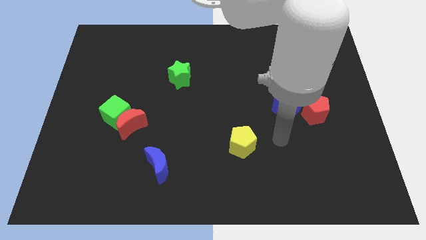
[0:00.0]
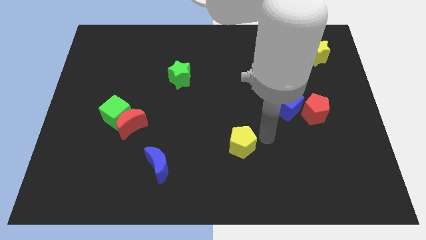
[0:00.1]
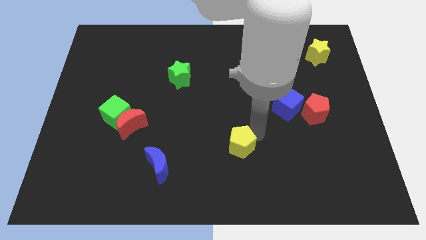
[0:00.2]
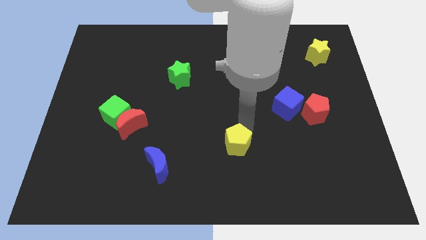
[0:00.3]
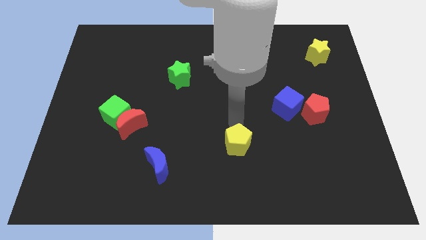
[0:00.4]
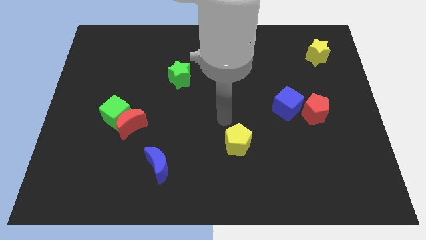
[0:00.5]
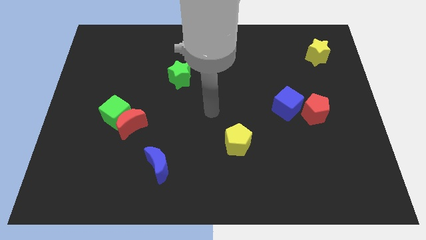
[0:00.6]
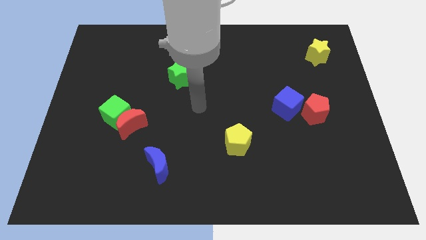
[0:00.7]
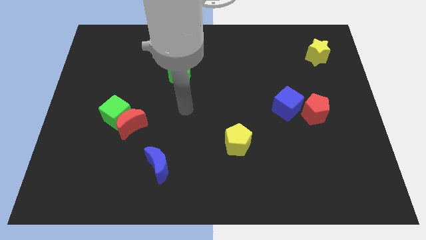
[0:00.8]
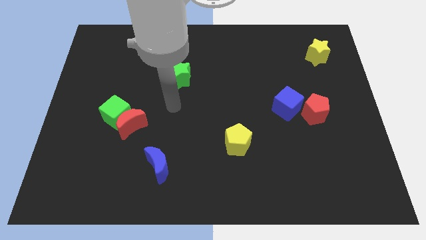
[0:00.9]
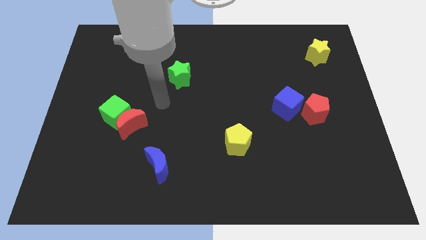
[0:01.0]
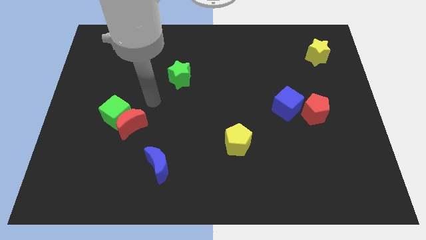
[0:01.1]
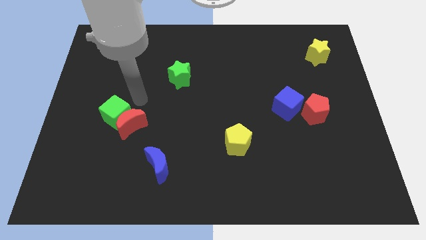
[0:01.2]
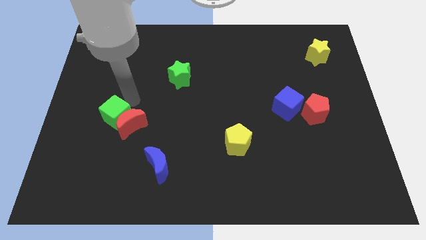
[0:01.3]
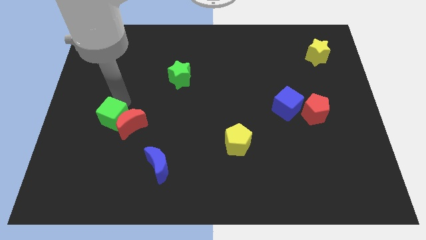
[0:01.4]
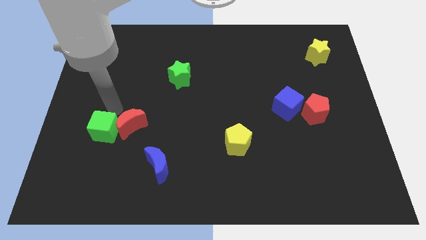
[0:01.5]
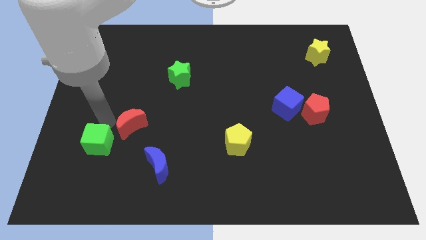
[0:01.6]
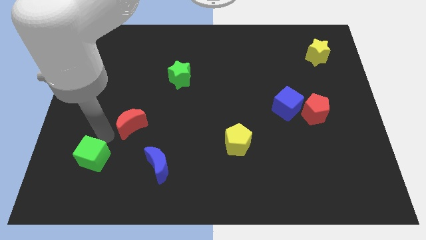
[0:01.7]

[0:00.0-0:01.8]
pull the red moon apart from the green cube

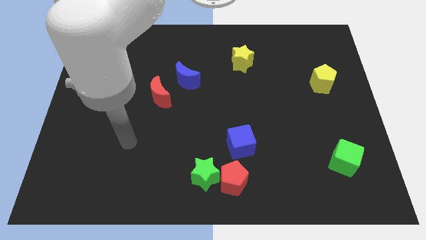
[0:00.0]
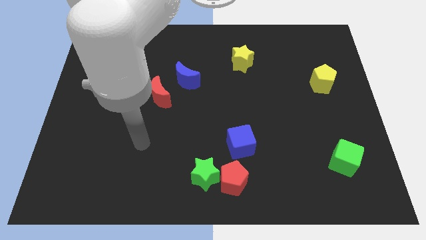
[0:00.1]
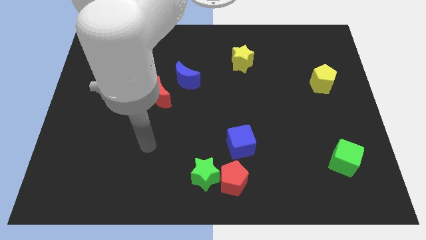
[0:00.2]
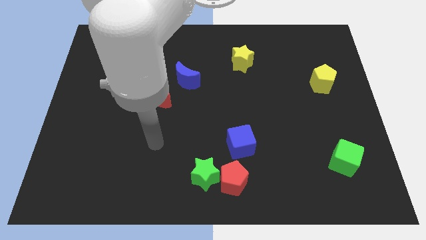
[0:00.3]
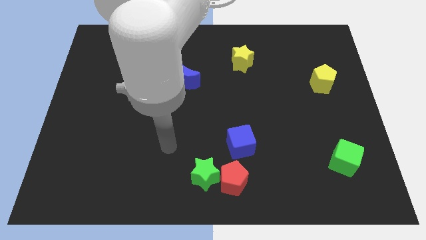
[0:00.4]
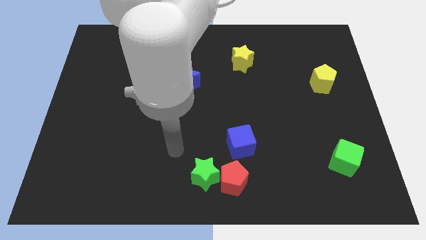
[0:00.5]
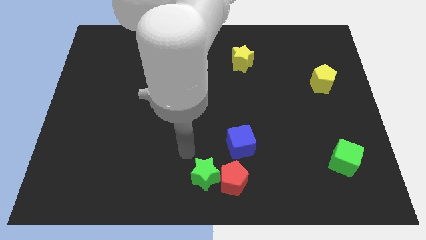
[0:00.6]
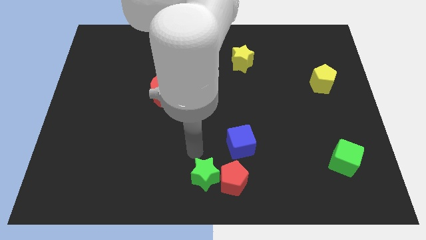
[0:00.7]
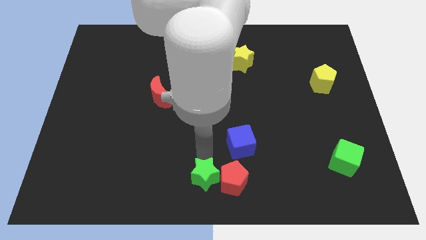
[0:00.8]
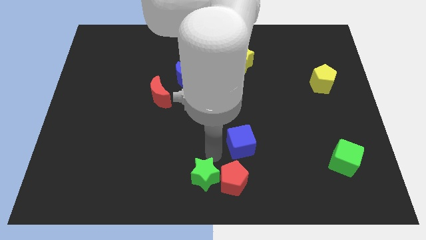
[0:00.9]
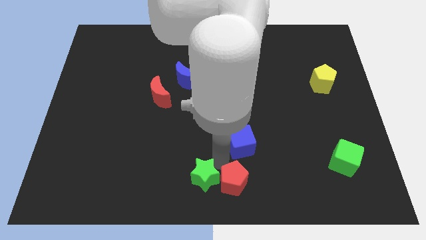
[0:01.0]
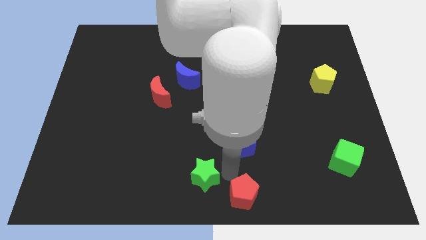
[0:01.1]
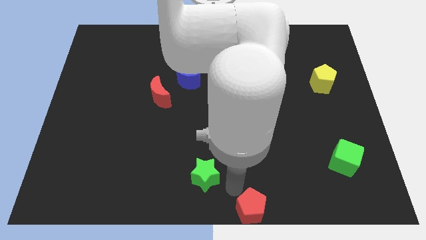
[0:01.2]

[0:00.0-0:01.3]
move the green star away from the red pentagon

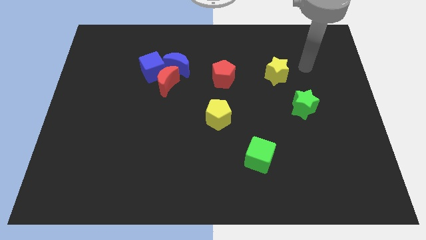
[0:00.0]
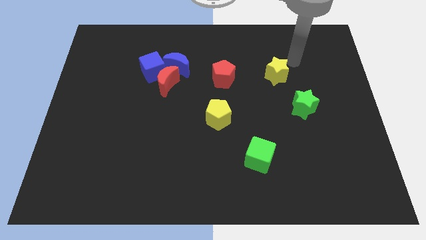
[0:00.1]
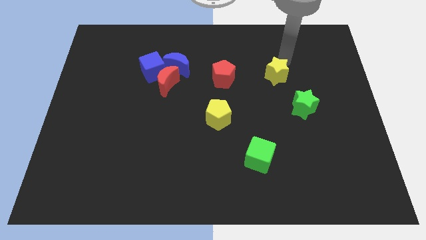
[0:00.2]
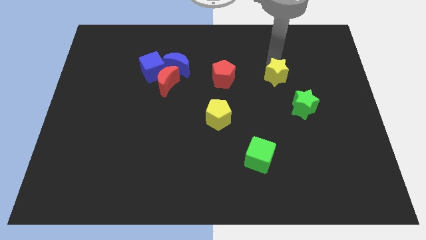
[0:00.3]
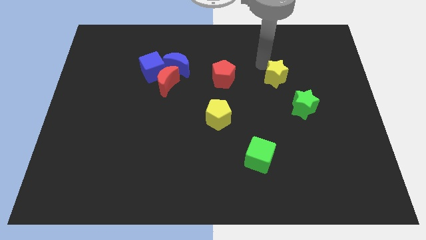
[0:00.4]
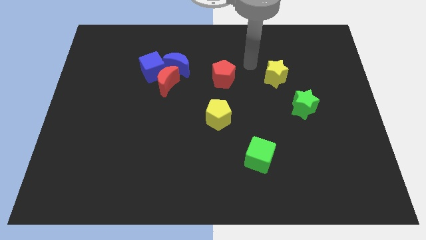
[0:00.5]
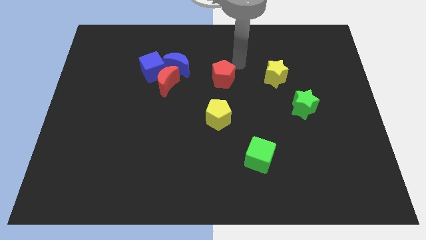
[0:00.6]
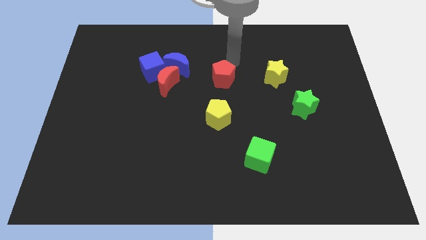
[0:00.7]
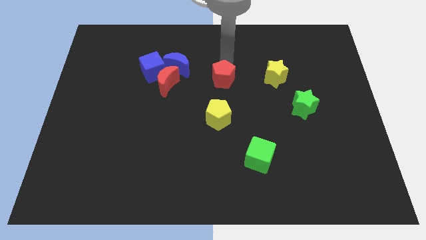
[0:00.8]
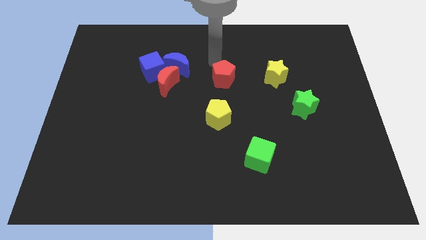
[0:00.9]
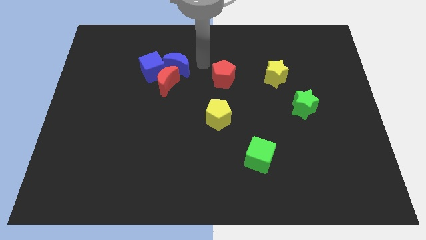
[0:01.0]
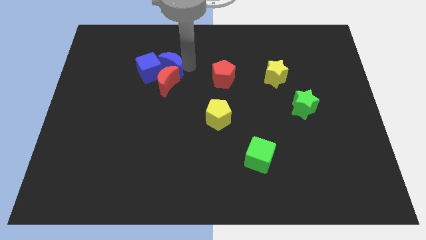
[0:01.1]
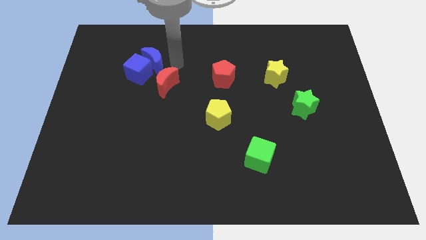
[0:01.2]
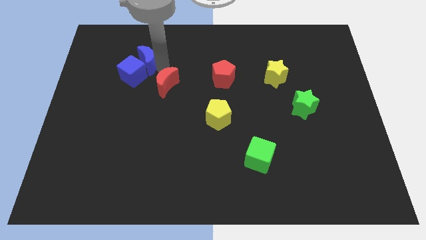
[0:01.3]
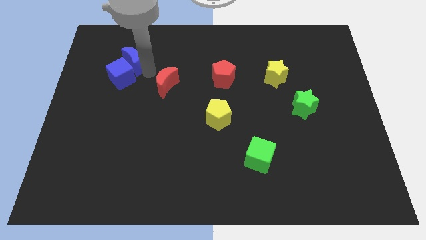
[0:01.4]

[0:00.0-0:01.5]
separate the red moon from the blue cube and blue moon

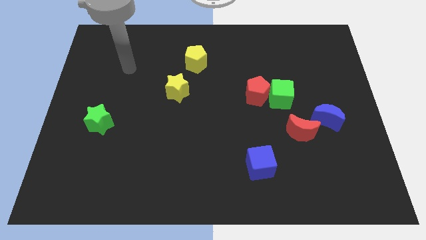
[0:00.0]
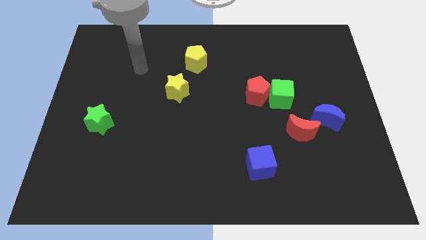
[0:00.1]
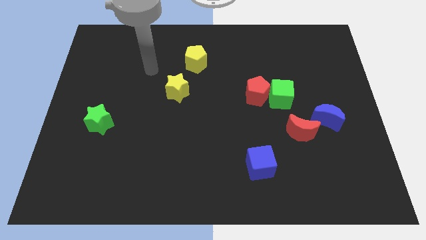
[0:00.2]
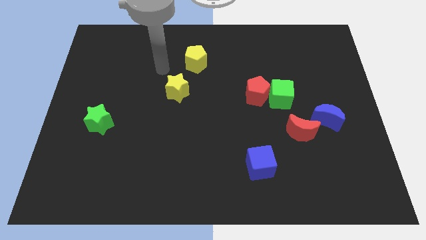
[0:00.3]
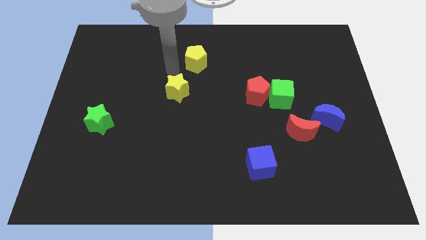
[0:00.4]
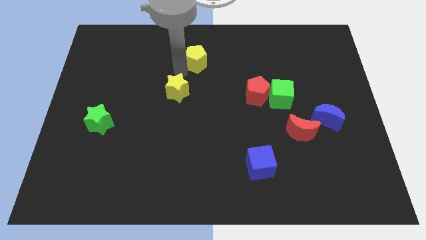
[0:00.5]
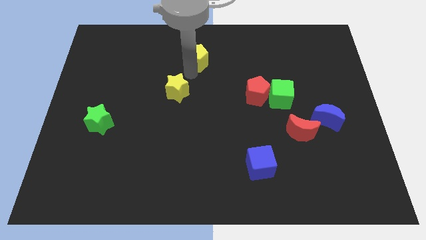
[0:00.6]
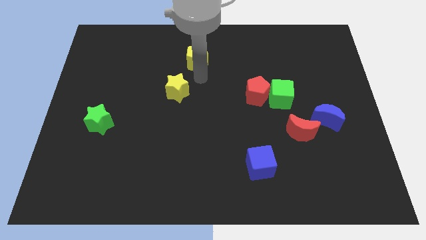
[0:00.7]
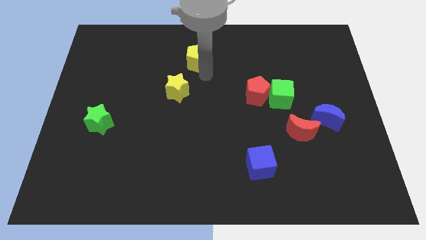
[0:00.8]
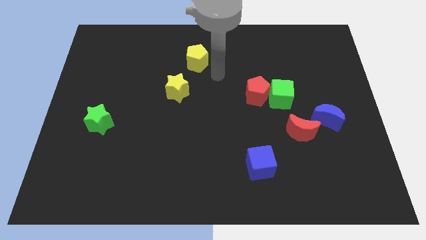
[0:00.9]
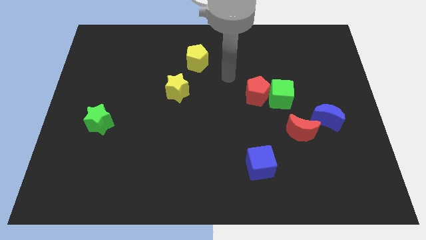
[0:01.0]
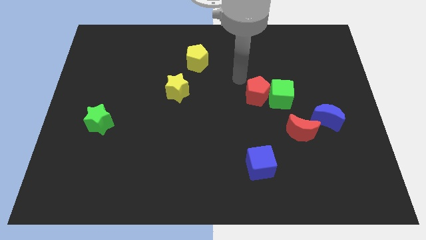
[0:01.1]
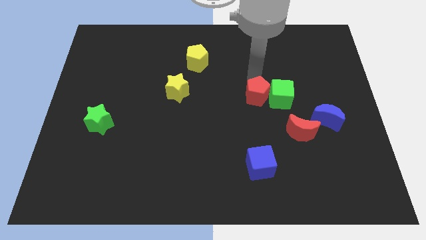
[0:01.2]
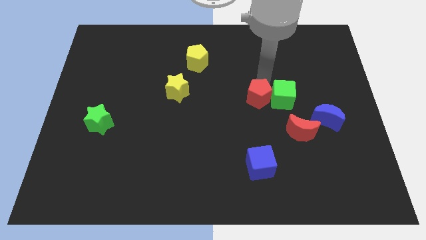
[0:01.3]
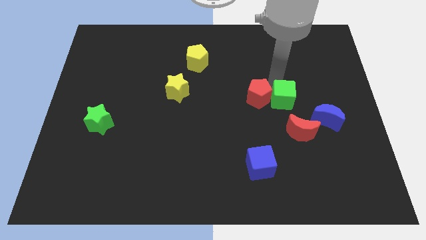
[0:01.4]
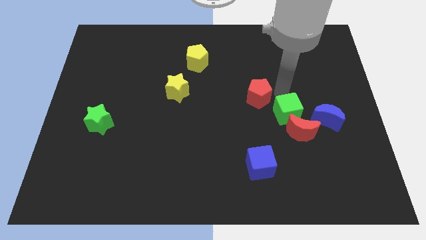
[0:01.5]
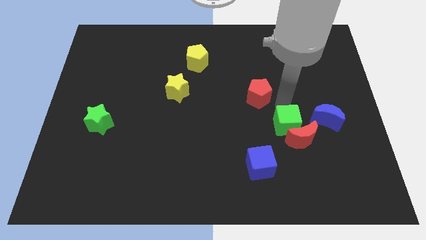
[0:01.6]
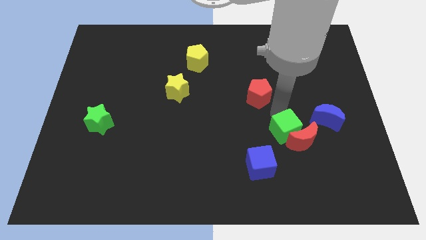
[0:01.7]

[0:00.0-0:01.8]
move the red pentagon away from the green cube

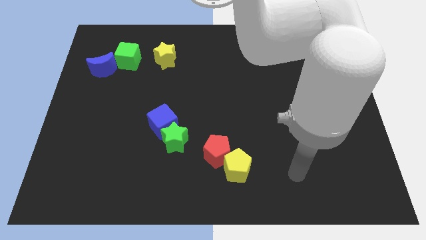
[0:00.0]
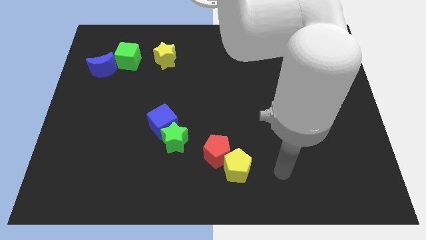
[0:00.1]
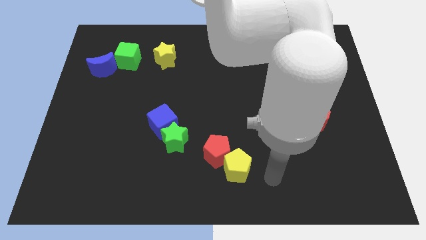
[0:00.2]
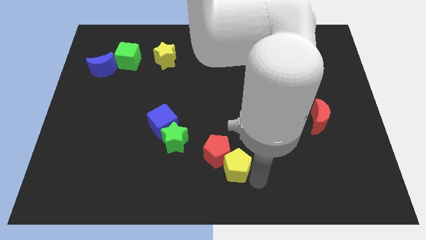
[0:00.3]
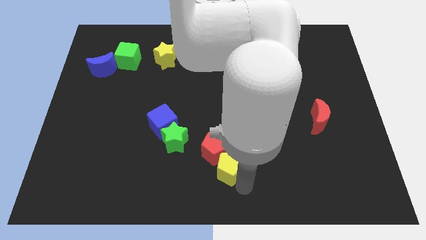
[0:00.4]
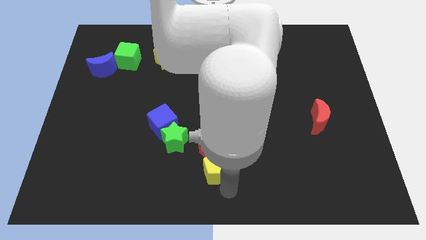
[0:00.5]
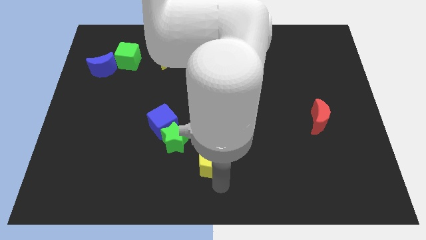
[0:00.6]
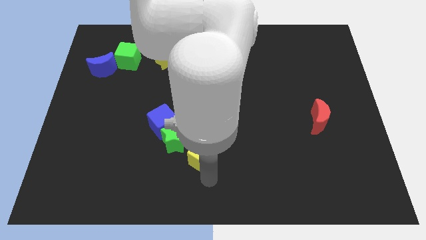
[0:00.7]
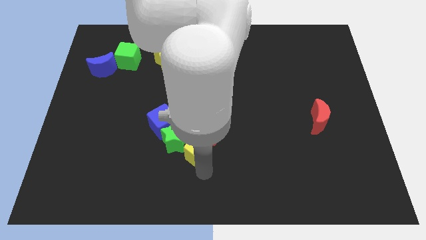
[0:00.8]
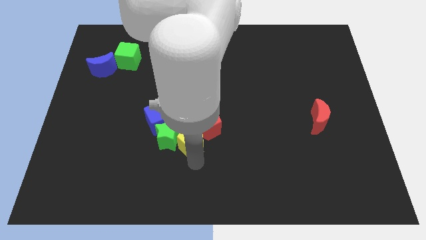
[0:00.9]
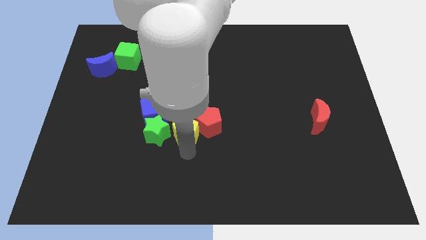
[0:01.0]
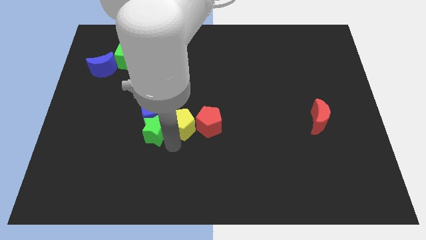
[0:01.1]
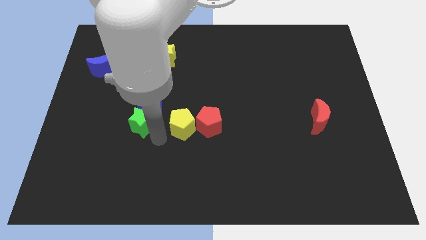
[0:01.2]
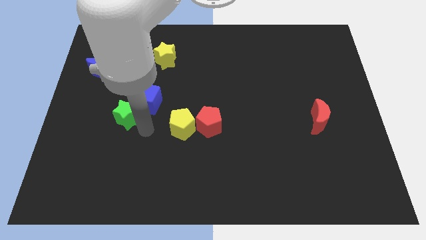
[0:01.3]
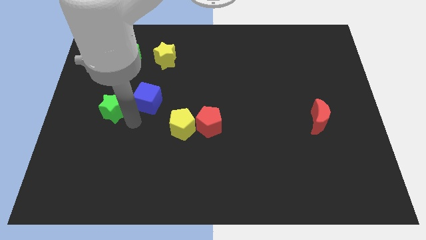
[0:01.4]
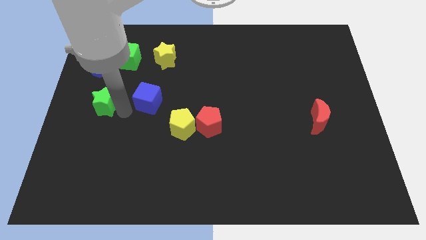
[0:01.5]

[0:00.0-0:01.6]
separate the blue cube from the green star

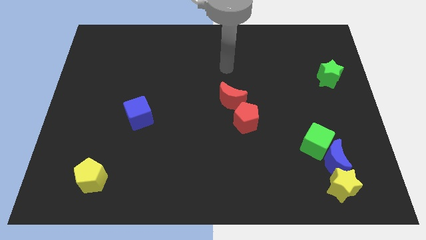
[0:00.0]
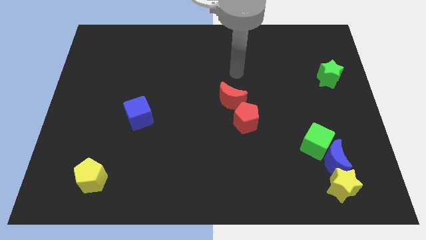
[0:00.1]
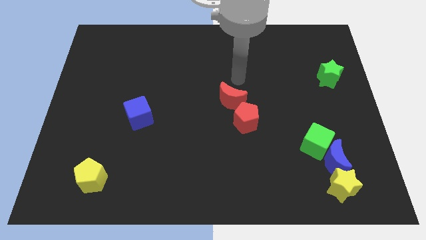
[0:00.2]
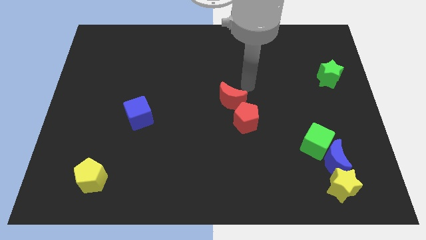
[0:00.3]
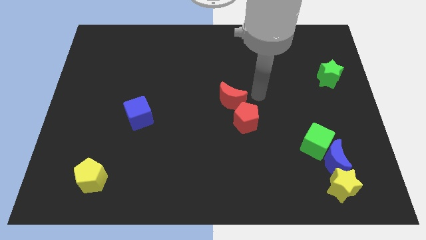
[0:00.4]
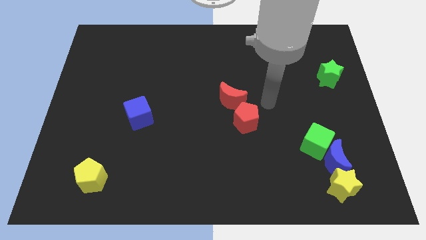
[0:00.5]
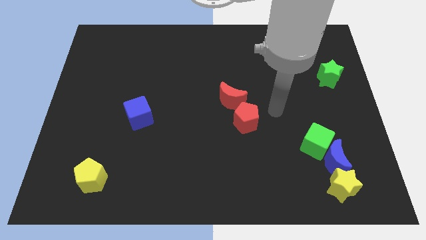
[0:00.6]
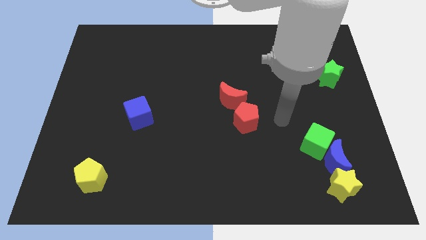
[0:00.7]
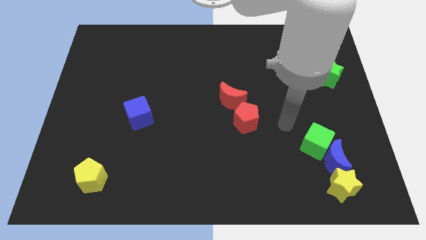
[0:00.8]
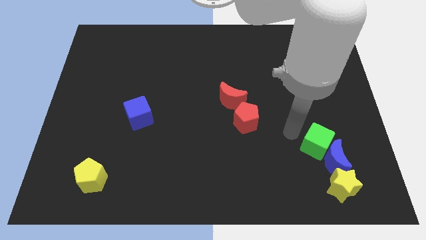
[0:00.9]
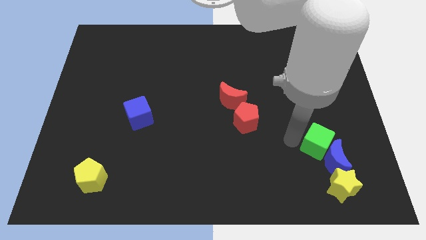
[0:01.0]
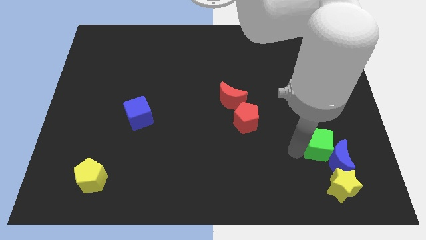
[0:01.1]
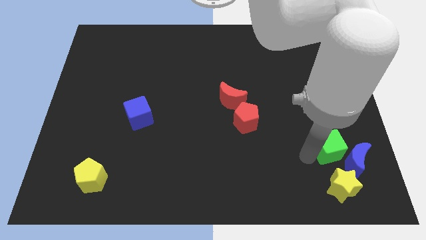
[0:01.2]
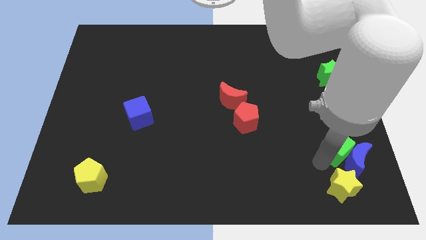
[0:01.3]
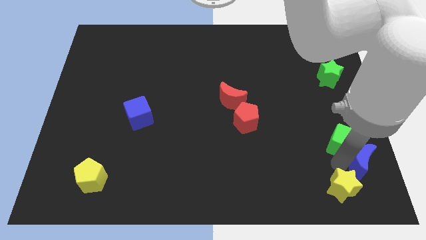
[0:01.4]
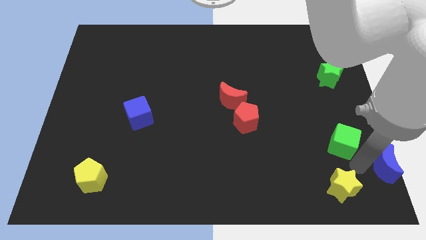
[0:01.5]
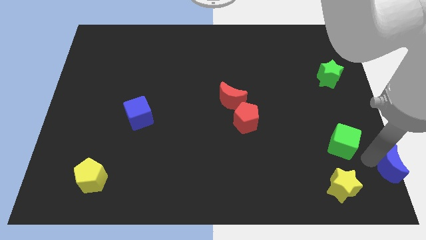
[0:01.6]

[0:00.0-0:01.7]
pull the green cube apart from the blue moon
